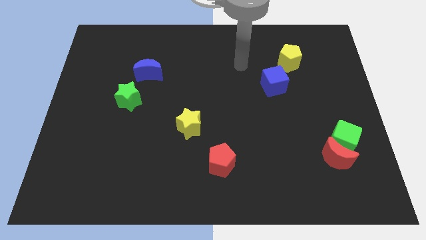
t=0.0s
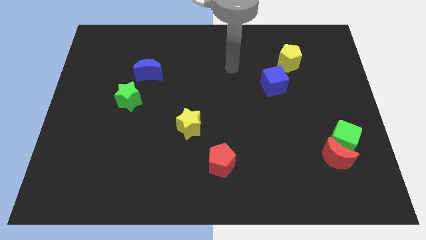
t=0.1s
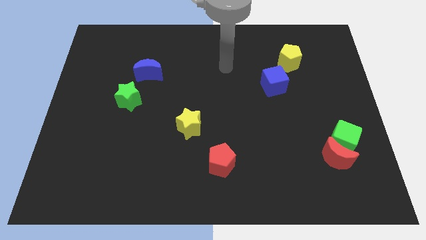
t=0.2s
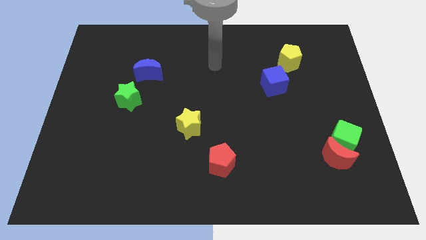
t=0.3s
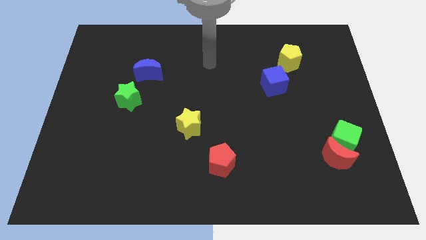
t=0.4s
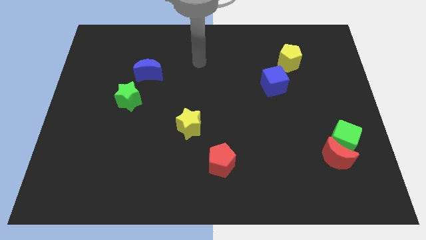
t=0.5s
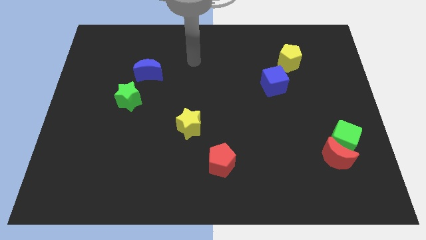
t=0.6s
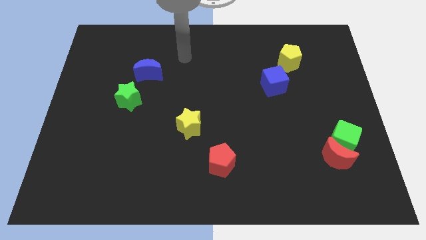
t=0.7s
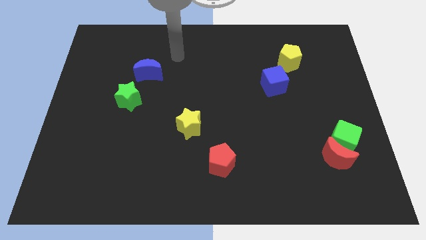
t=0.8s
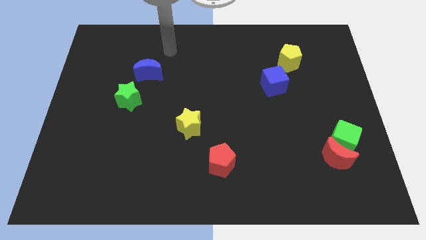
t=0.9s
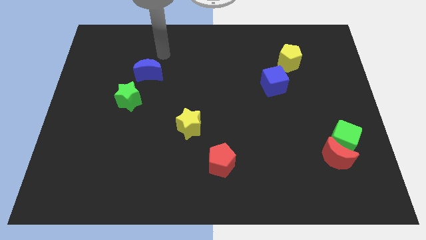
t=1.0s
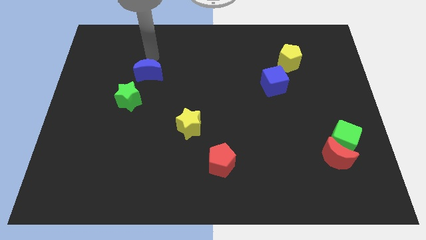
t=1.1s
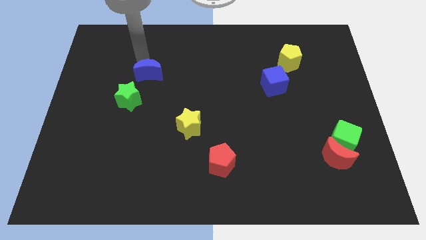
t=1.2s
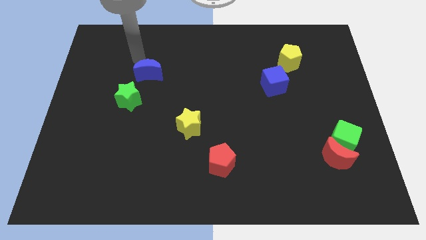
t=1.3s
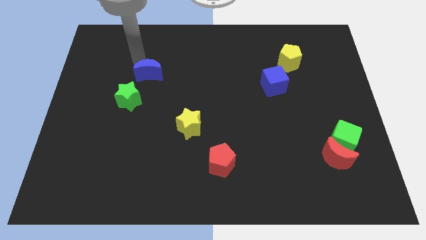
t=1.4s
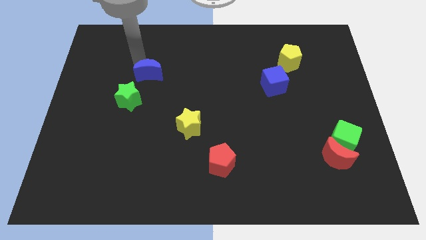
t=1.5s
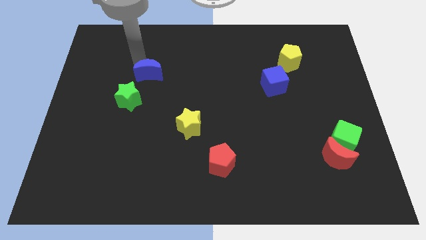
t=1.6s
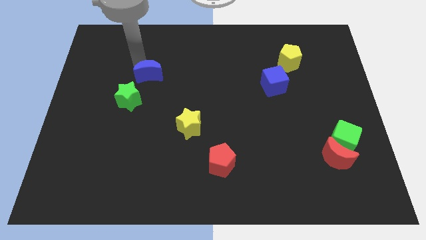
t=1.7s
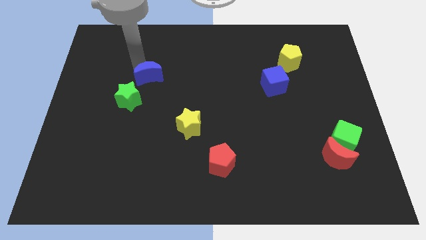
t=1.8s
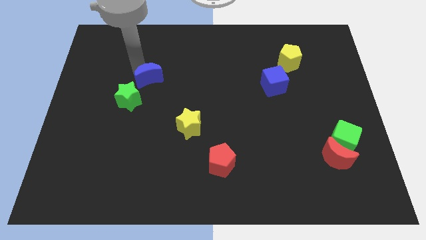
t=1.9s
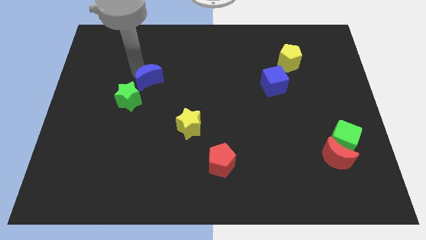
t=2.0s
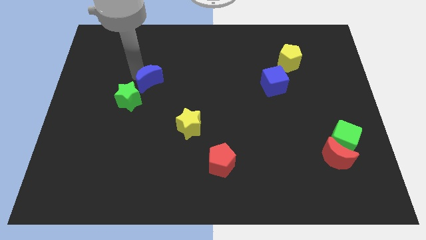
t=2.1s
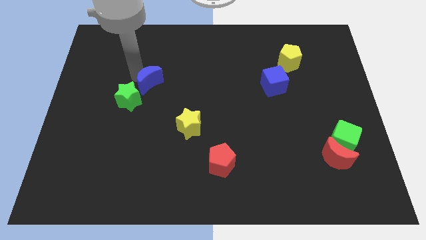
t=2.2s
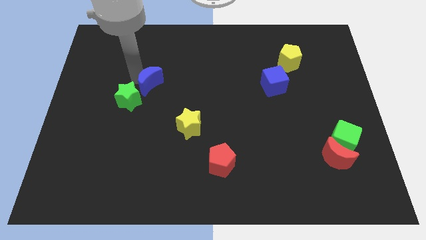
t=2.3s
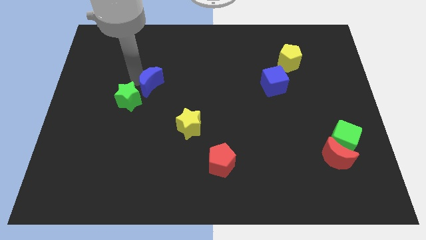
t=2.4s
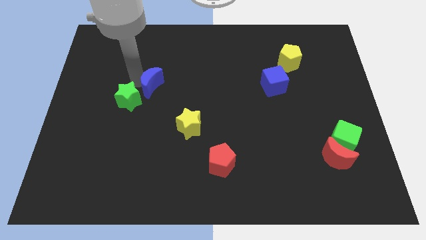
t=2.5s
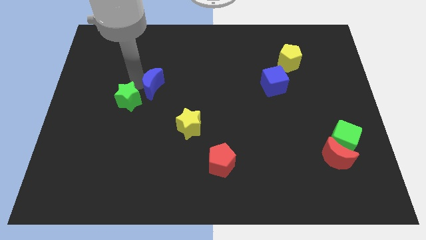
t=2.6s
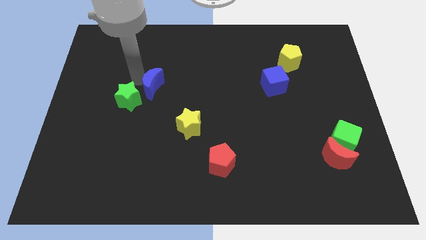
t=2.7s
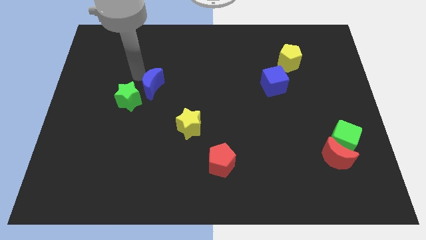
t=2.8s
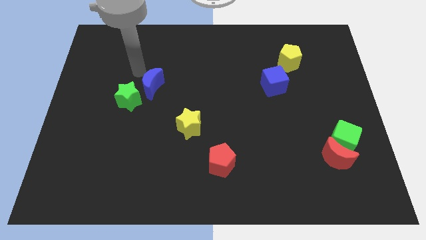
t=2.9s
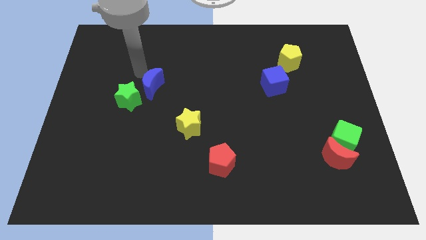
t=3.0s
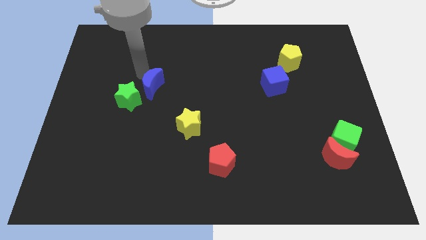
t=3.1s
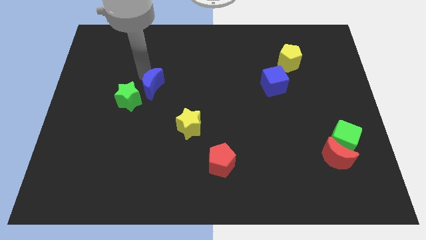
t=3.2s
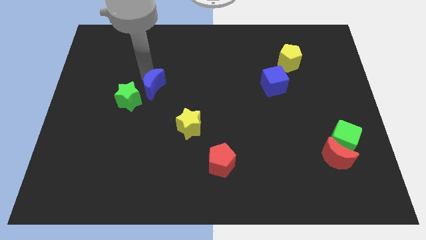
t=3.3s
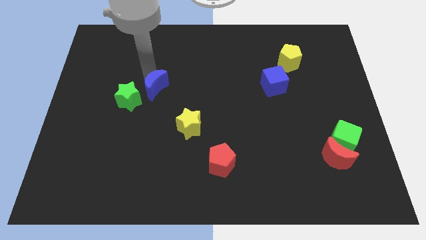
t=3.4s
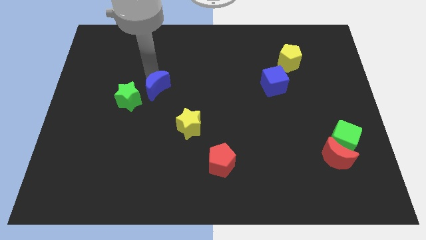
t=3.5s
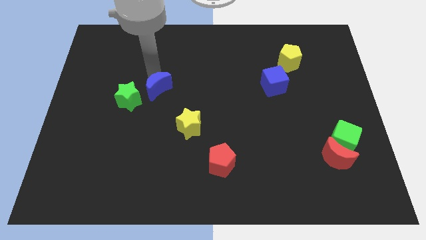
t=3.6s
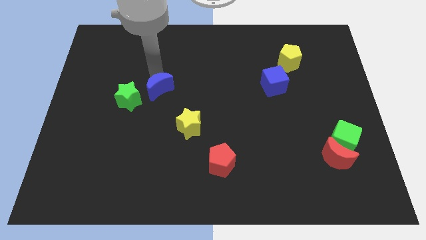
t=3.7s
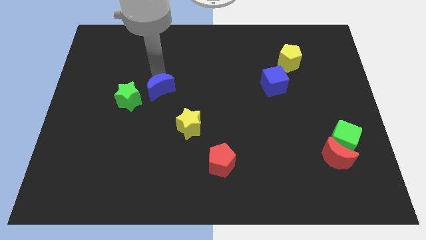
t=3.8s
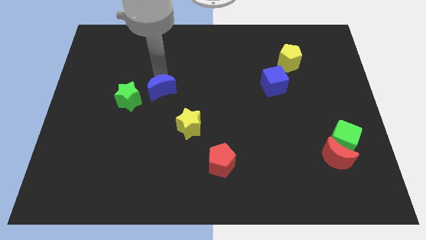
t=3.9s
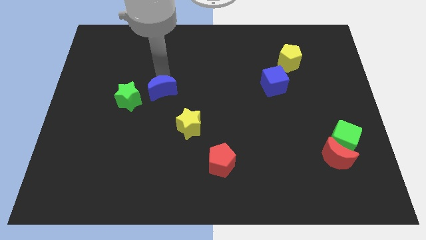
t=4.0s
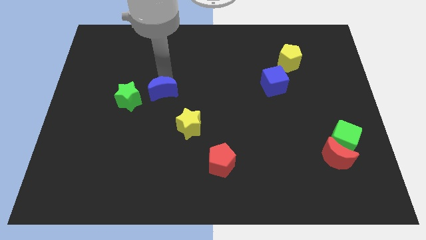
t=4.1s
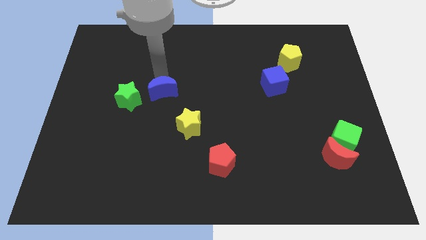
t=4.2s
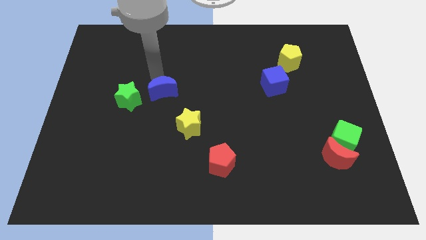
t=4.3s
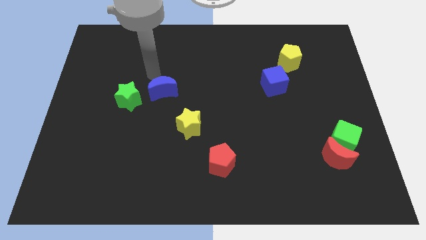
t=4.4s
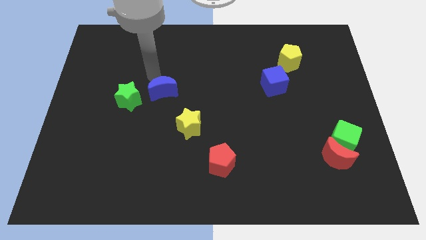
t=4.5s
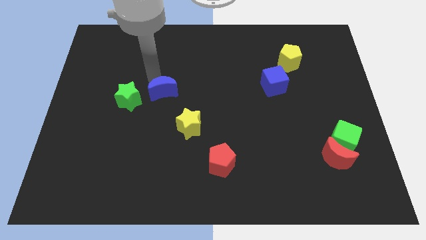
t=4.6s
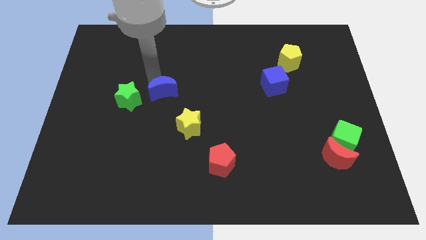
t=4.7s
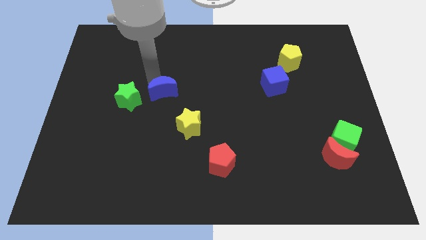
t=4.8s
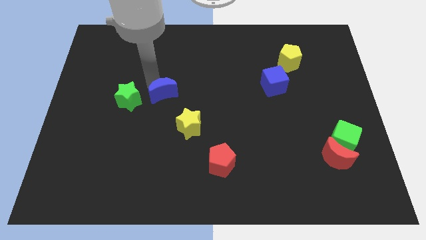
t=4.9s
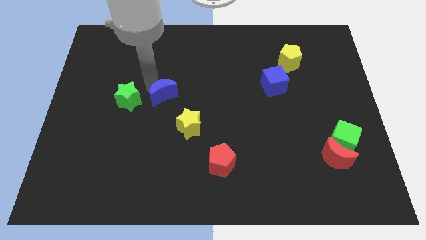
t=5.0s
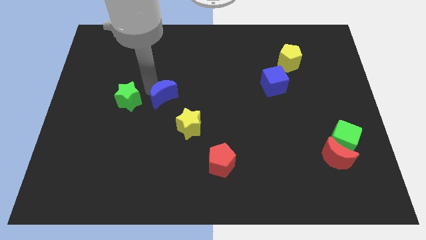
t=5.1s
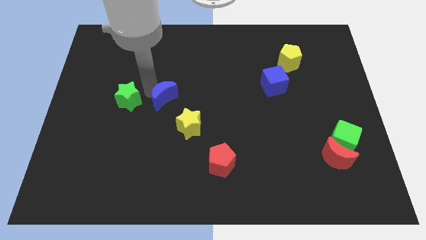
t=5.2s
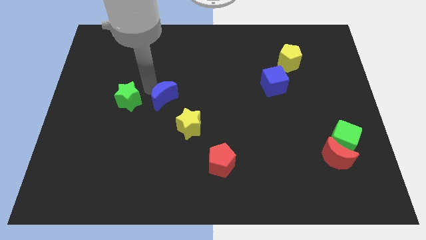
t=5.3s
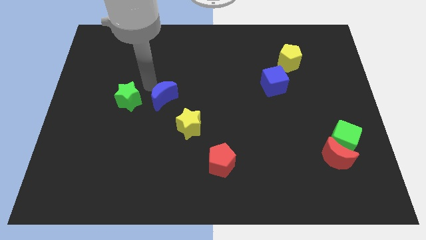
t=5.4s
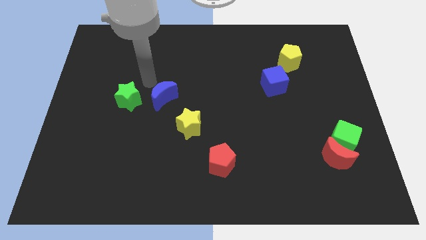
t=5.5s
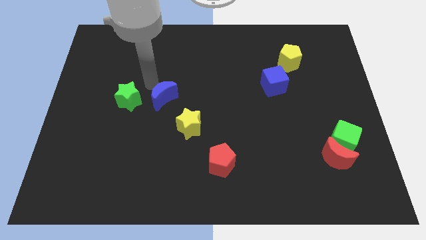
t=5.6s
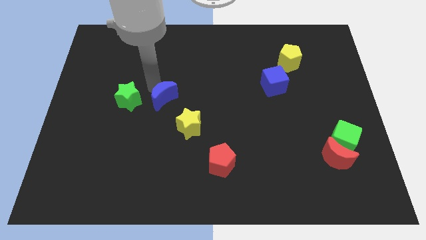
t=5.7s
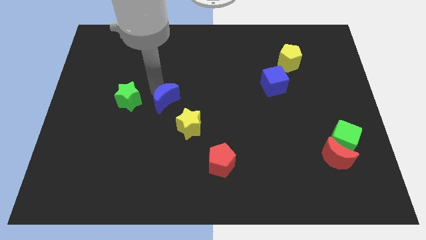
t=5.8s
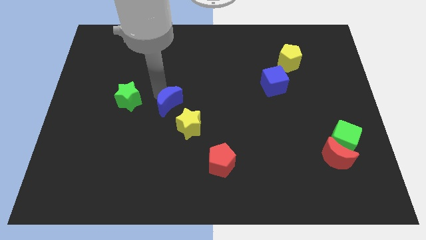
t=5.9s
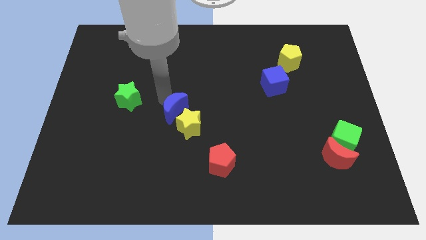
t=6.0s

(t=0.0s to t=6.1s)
move the blue moon close to the yellow star
